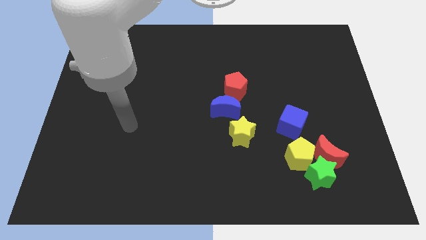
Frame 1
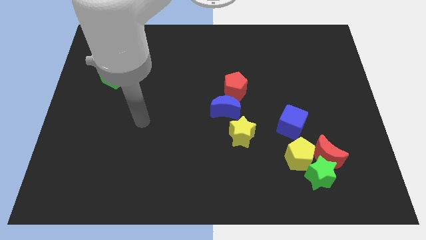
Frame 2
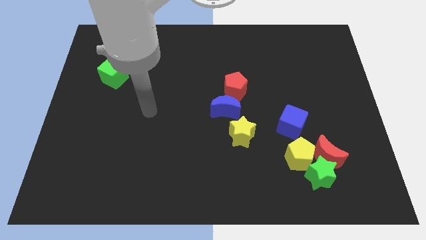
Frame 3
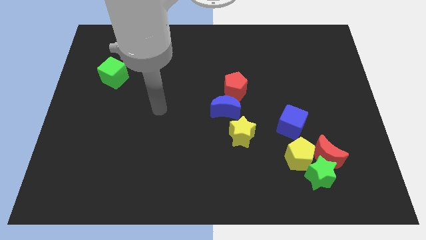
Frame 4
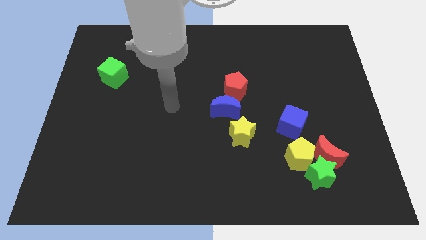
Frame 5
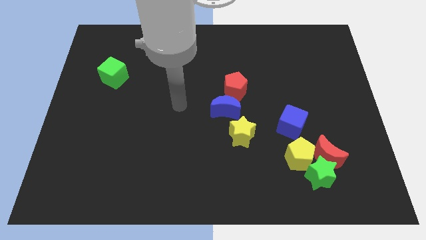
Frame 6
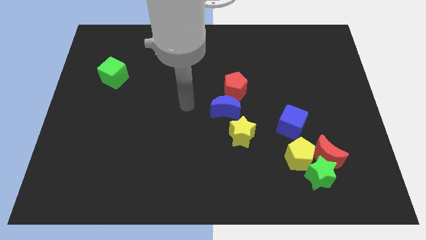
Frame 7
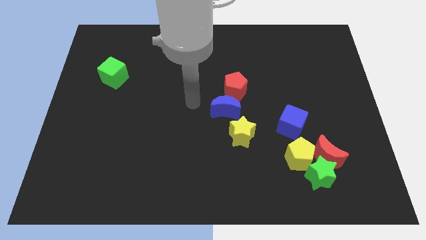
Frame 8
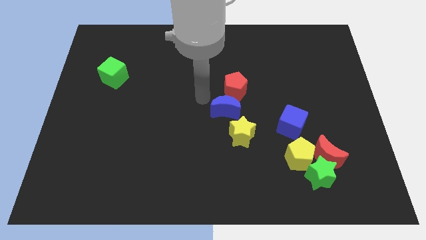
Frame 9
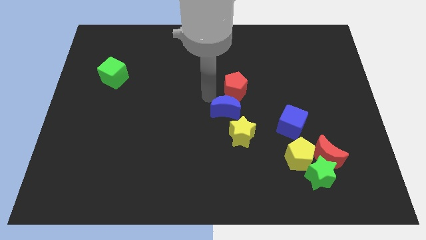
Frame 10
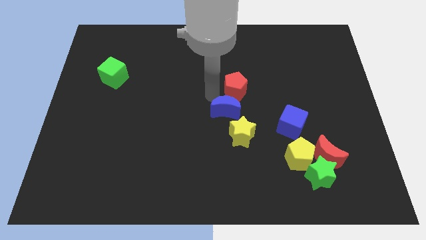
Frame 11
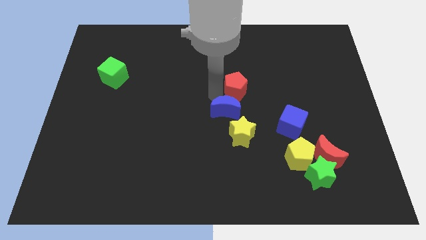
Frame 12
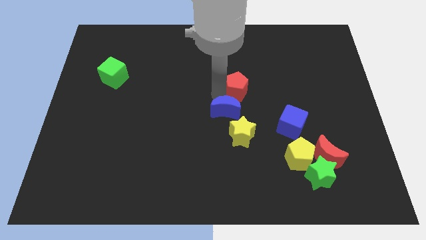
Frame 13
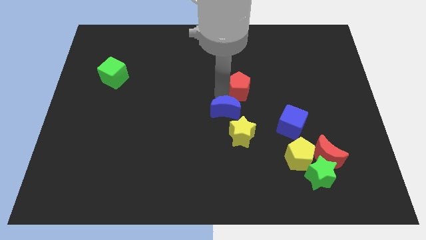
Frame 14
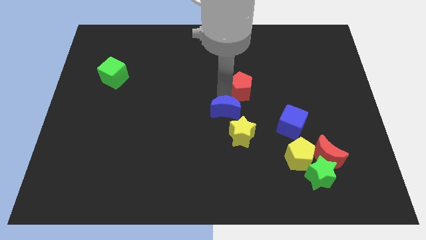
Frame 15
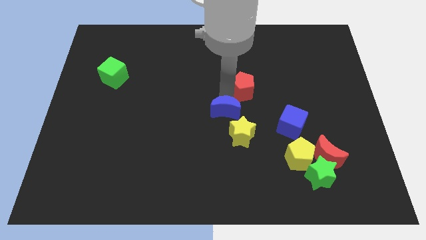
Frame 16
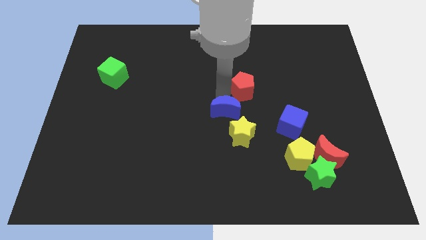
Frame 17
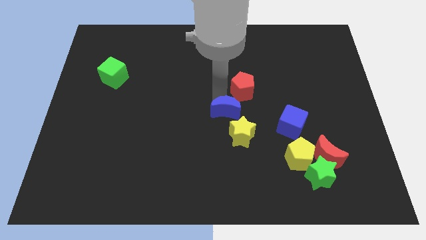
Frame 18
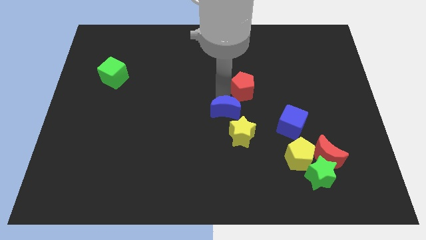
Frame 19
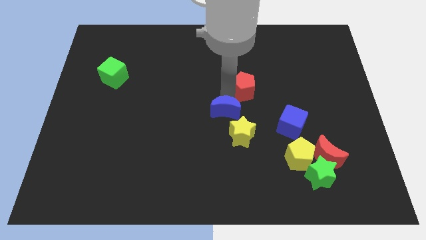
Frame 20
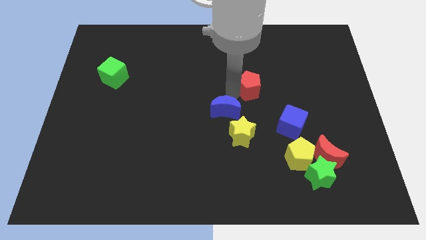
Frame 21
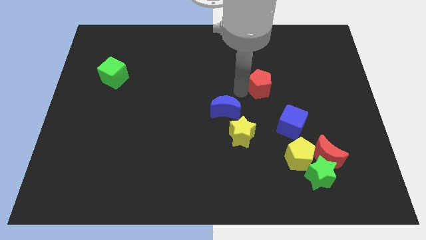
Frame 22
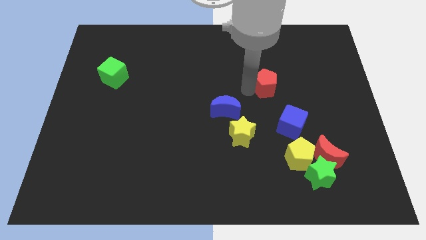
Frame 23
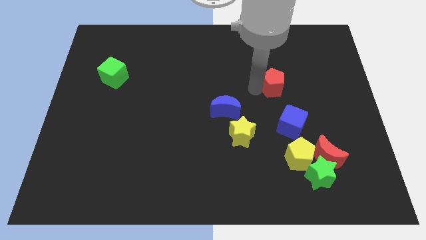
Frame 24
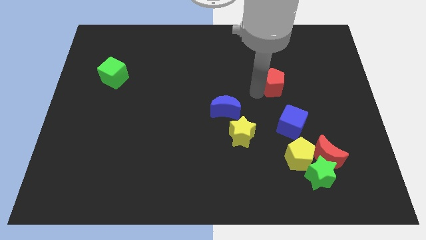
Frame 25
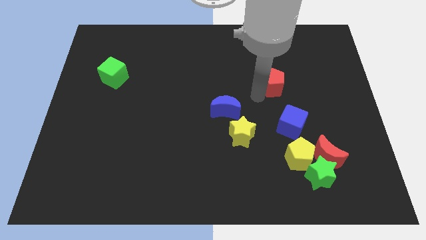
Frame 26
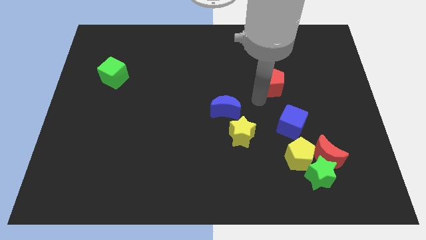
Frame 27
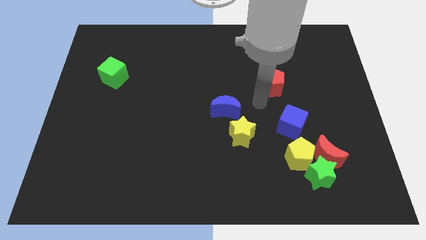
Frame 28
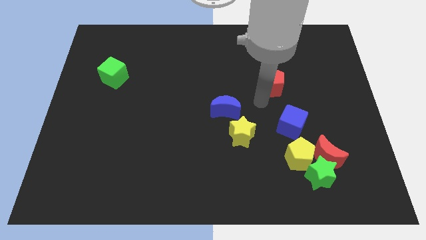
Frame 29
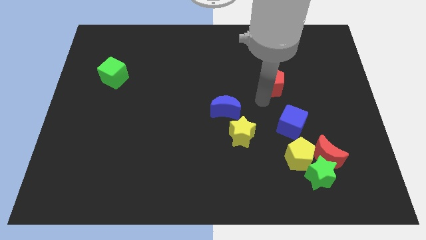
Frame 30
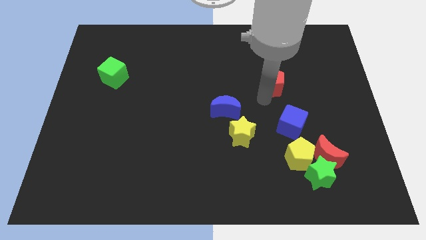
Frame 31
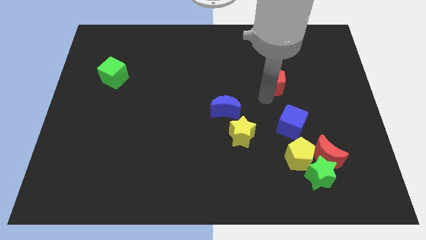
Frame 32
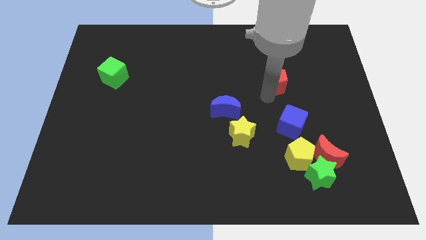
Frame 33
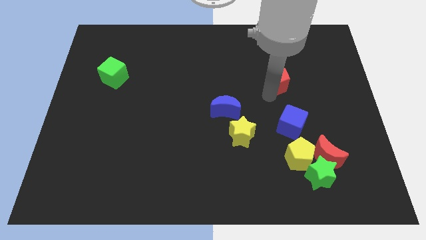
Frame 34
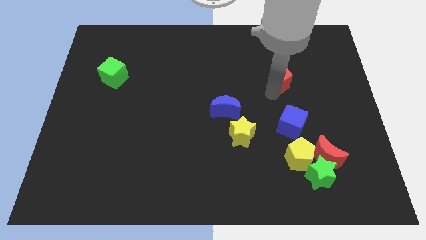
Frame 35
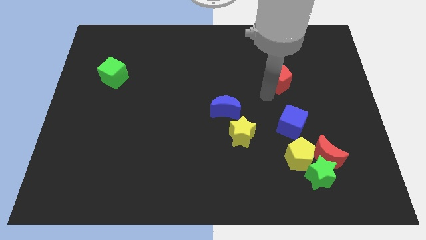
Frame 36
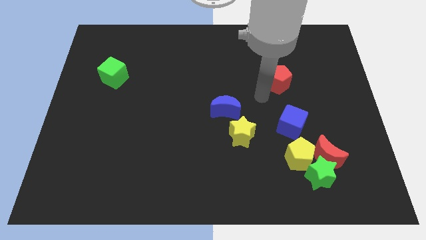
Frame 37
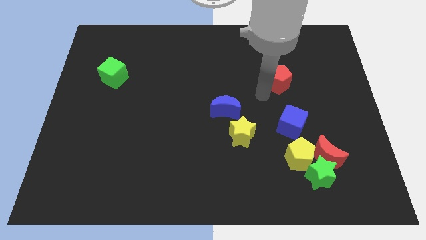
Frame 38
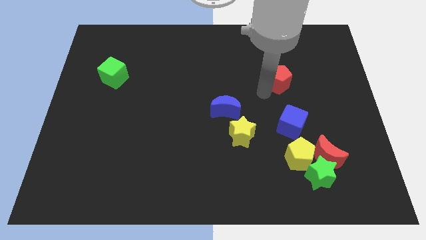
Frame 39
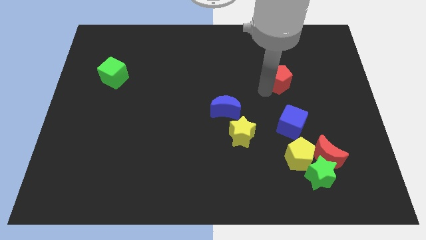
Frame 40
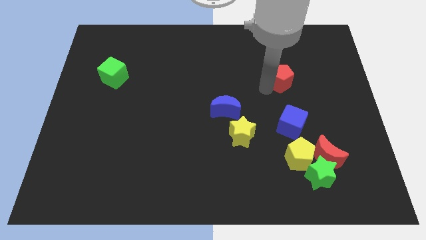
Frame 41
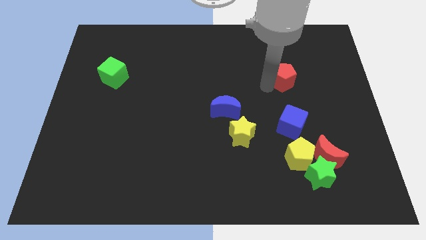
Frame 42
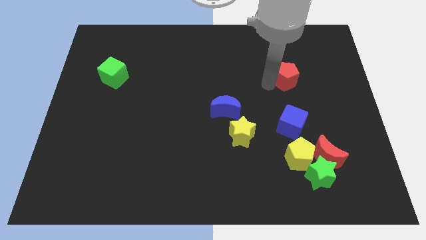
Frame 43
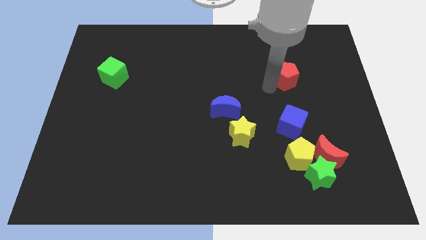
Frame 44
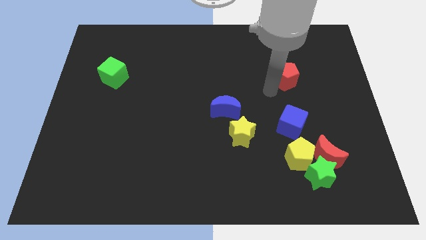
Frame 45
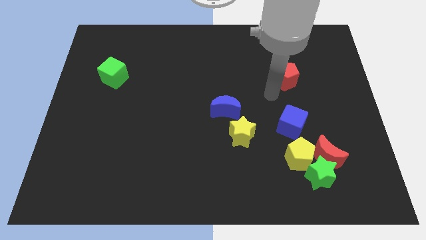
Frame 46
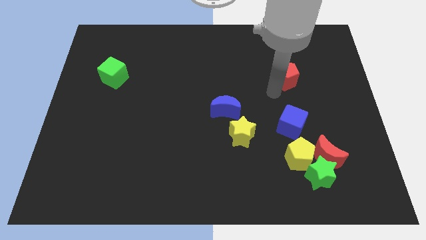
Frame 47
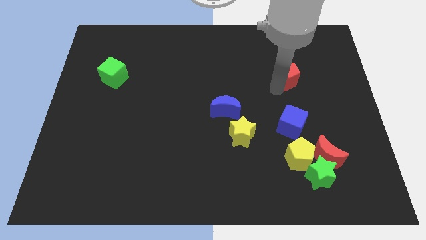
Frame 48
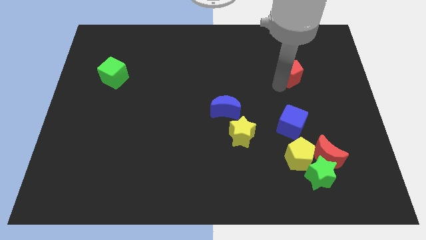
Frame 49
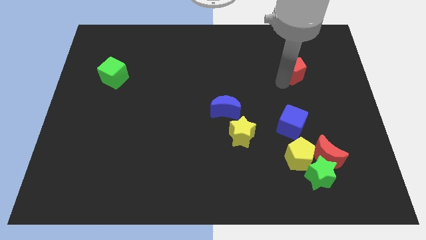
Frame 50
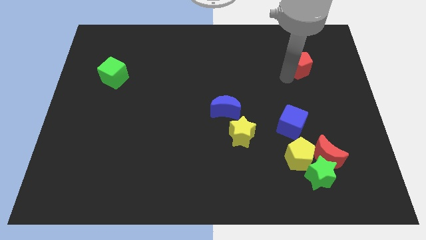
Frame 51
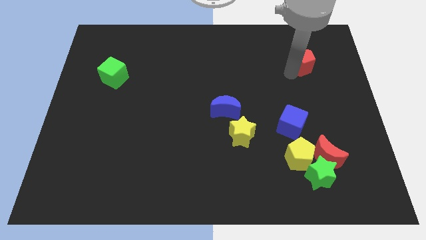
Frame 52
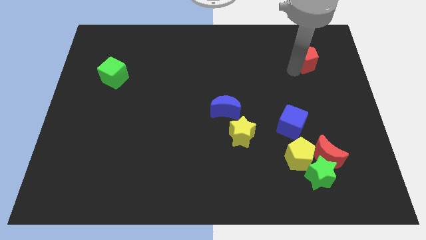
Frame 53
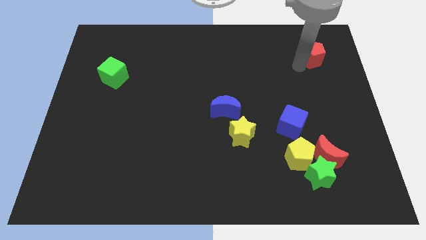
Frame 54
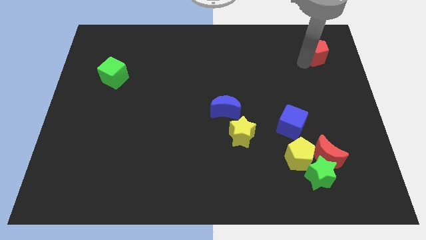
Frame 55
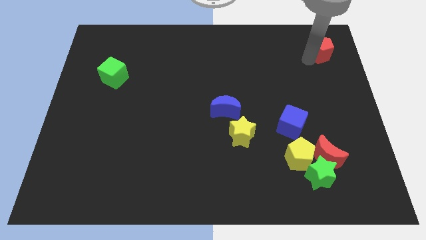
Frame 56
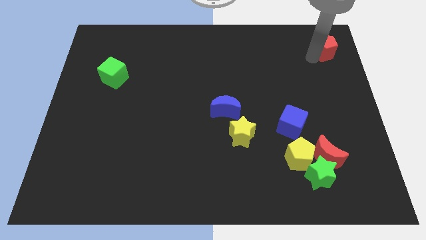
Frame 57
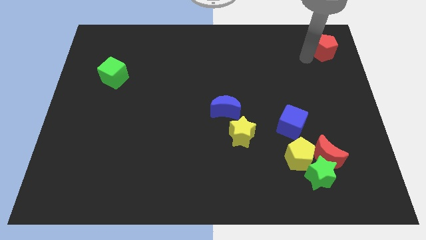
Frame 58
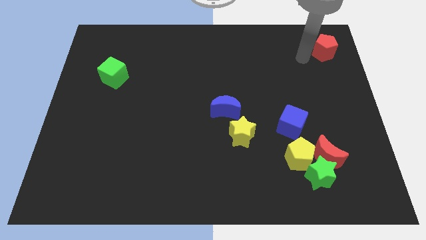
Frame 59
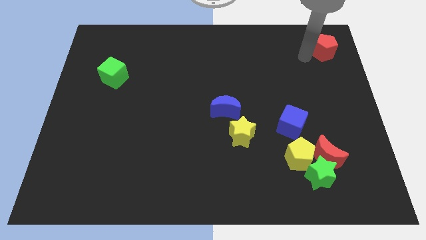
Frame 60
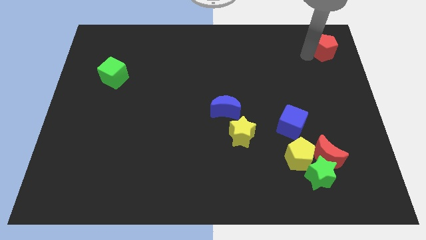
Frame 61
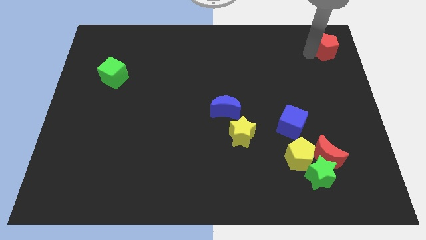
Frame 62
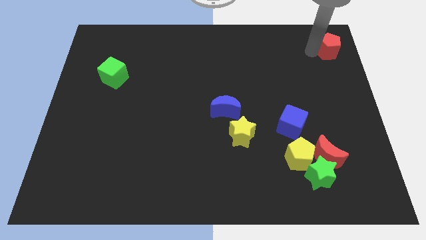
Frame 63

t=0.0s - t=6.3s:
move the red pentagon to the top right corner
